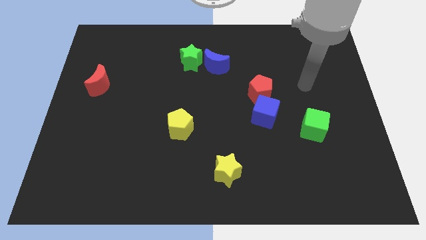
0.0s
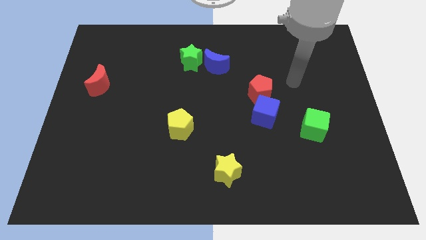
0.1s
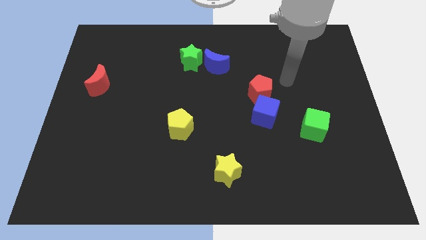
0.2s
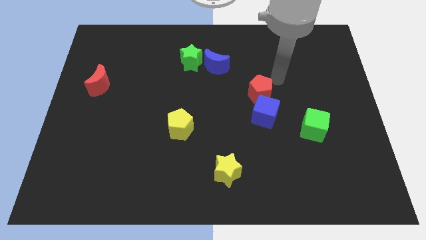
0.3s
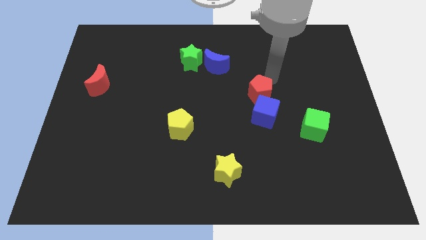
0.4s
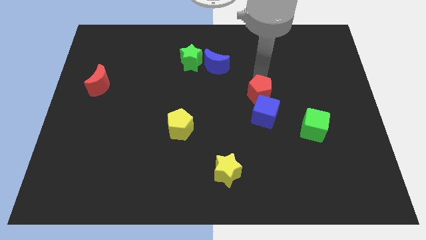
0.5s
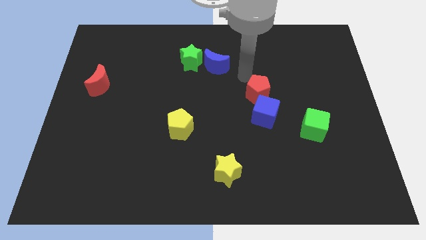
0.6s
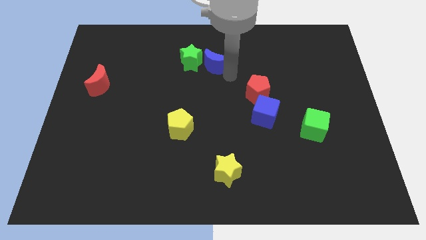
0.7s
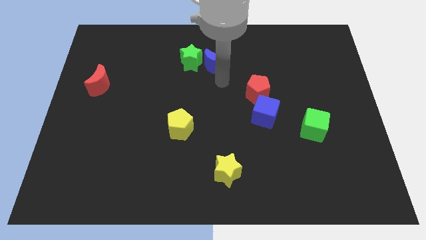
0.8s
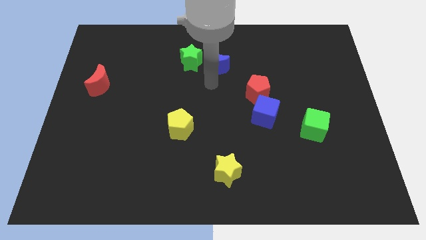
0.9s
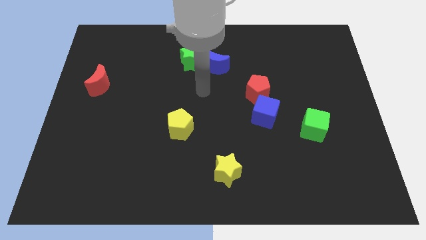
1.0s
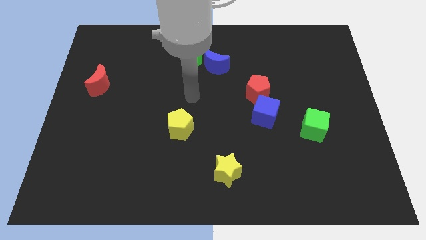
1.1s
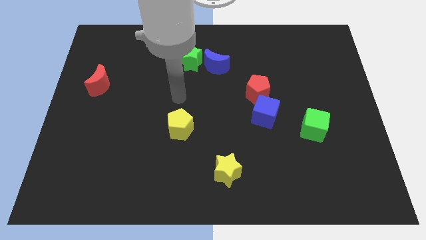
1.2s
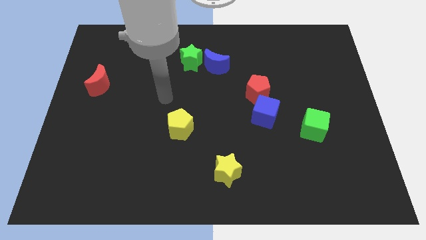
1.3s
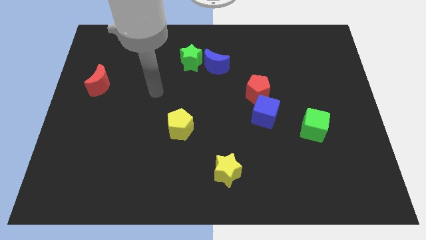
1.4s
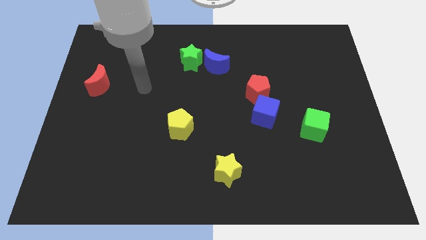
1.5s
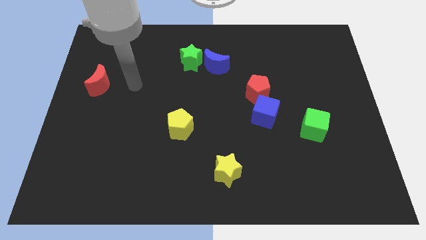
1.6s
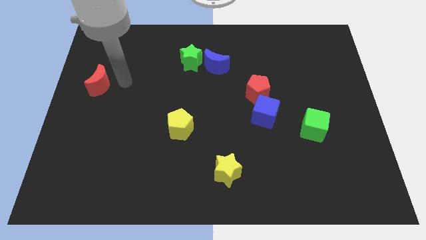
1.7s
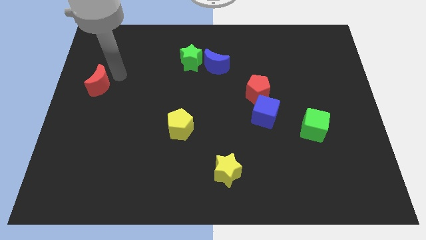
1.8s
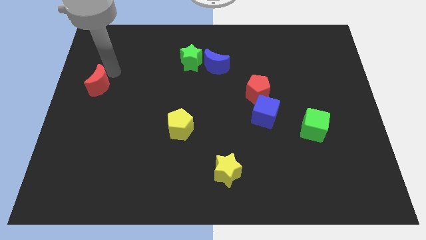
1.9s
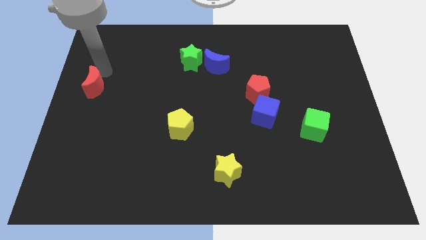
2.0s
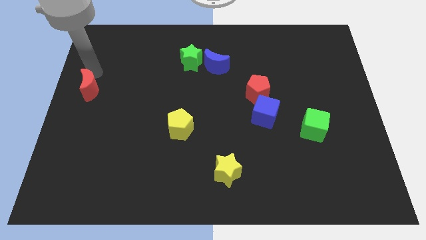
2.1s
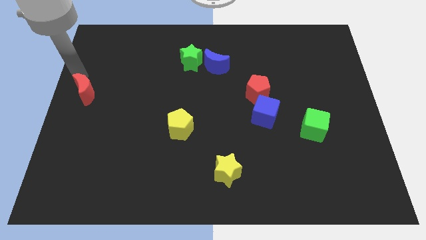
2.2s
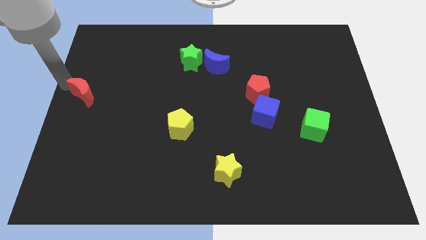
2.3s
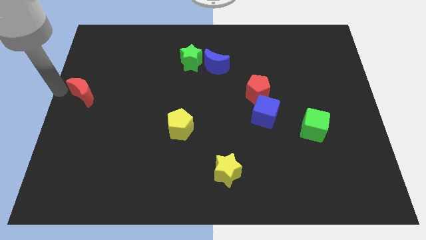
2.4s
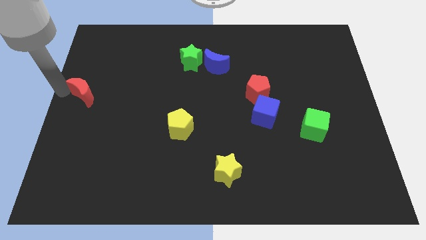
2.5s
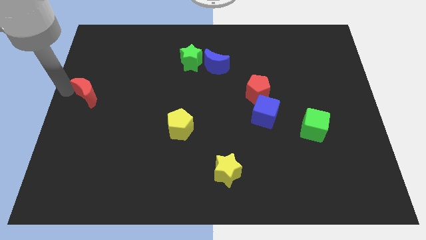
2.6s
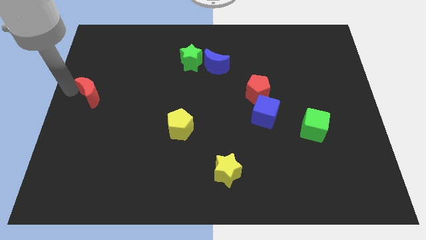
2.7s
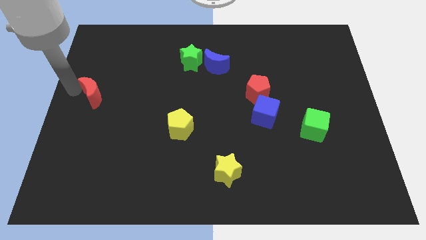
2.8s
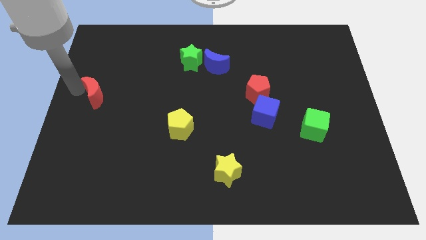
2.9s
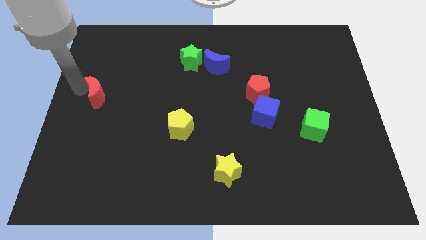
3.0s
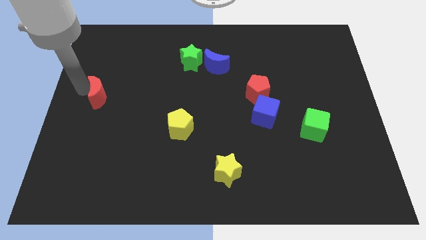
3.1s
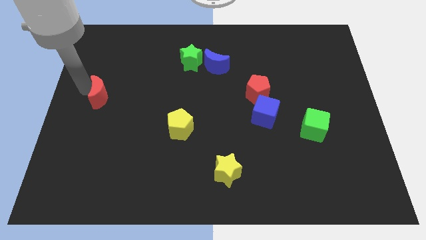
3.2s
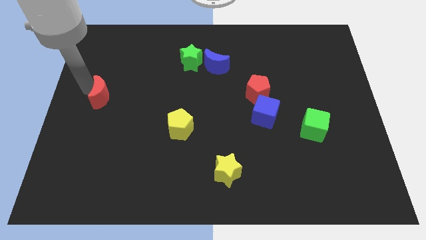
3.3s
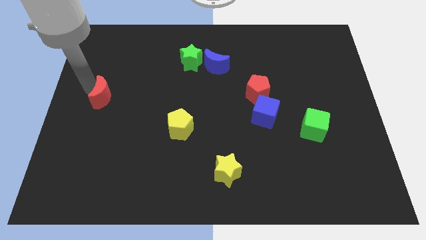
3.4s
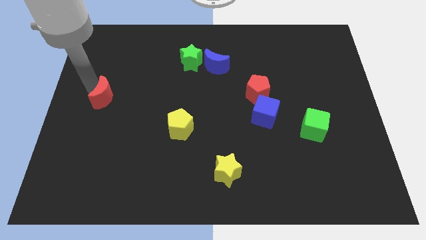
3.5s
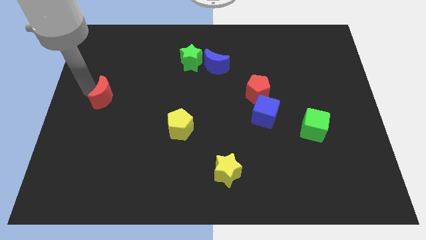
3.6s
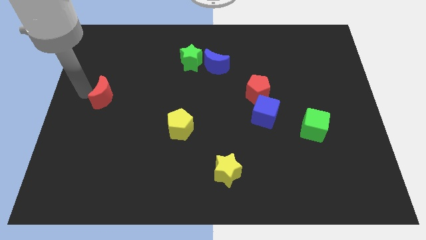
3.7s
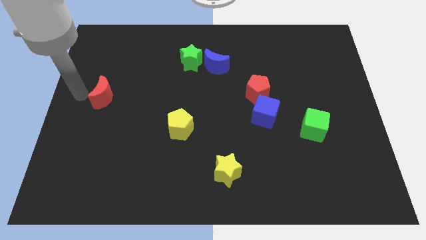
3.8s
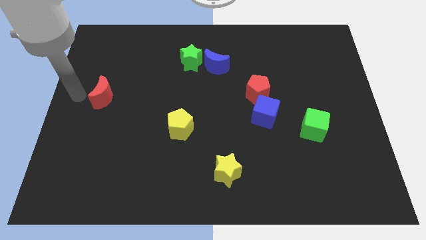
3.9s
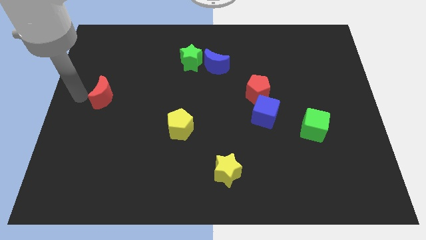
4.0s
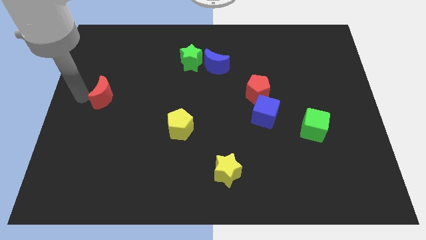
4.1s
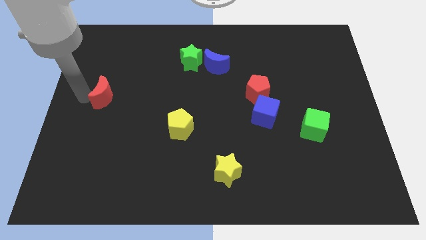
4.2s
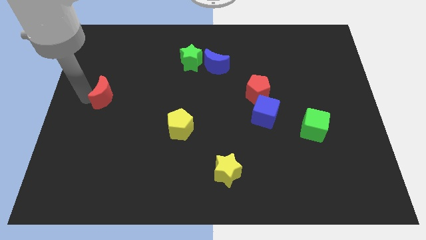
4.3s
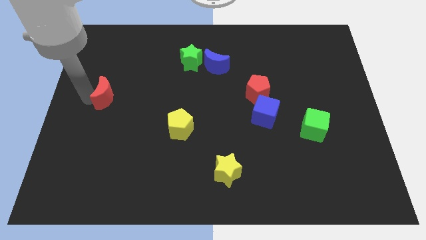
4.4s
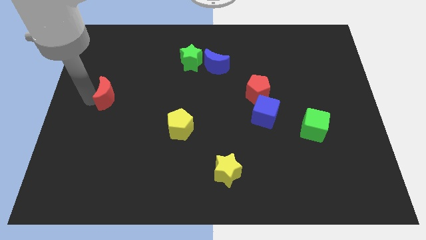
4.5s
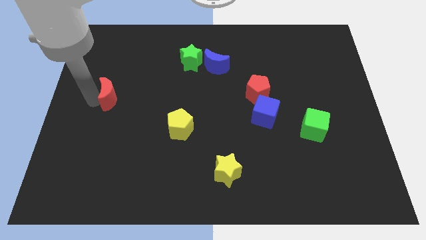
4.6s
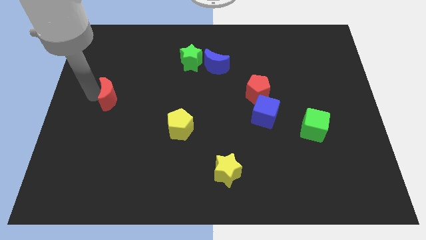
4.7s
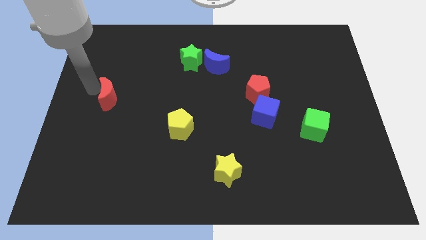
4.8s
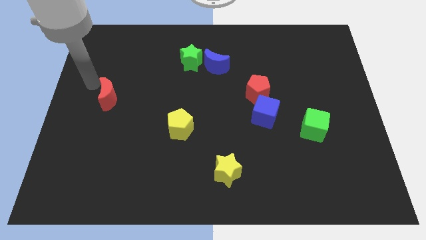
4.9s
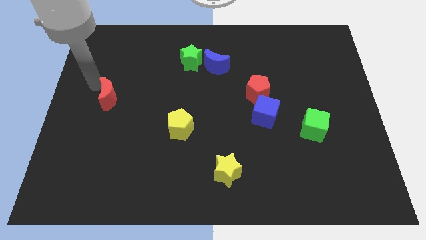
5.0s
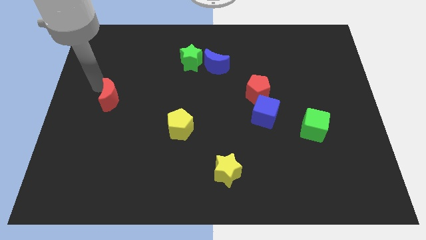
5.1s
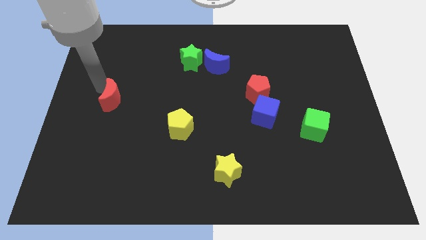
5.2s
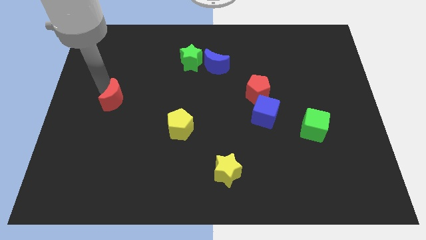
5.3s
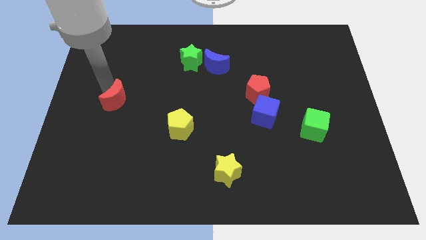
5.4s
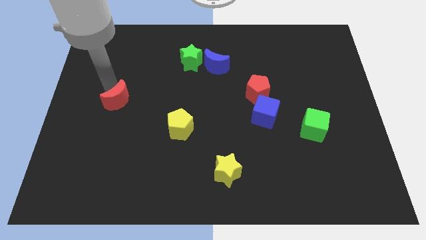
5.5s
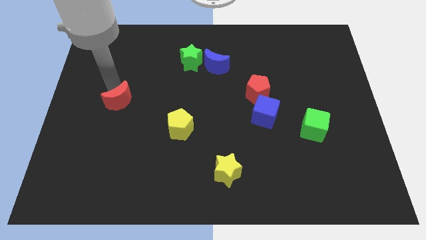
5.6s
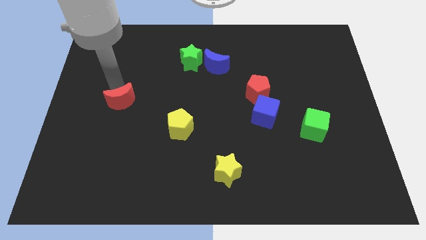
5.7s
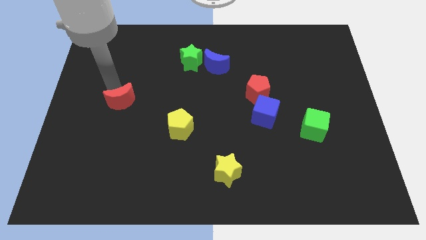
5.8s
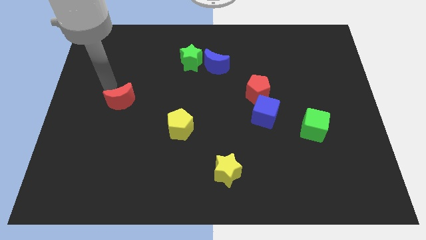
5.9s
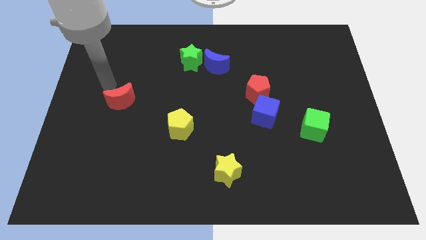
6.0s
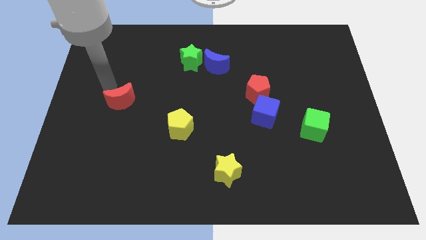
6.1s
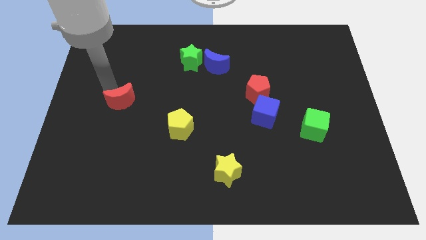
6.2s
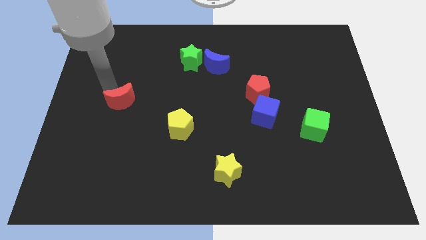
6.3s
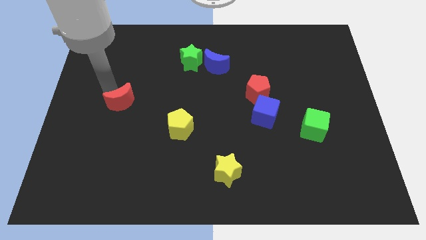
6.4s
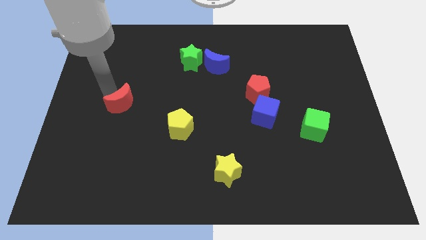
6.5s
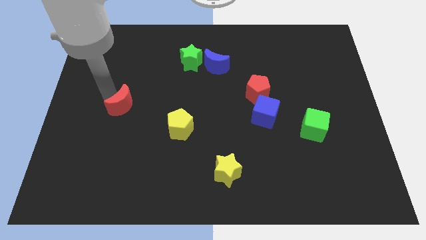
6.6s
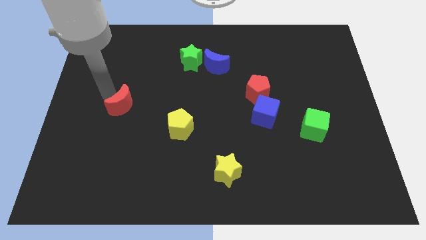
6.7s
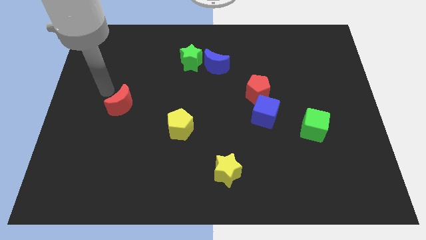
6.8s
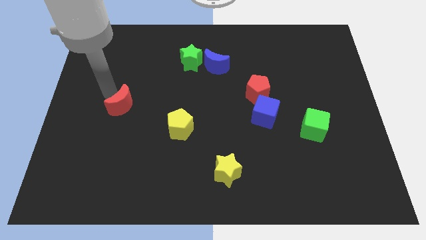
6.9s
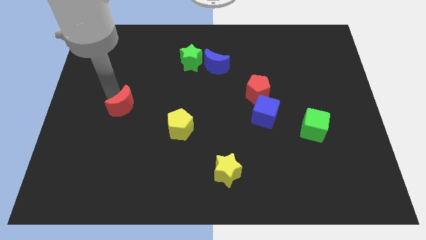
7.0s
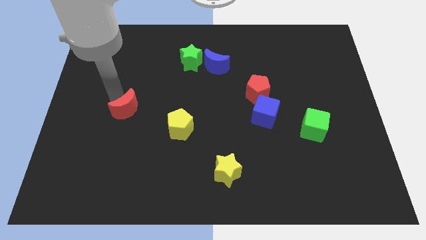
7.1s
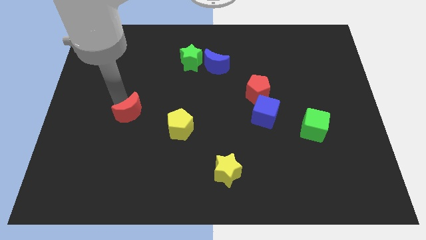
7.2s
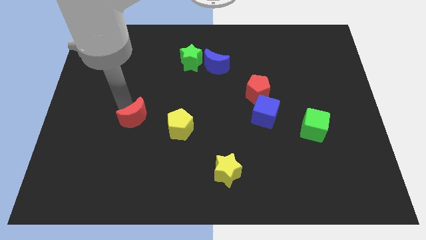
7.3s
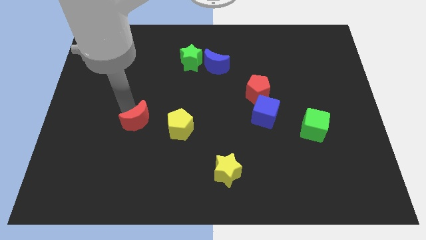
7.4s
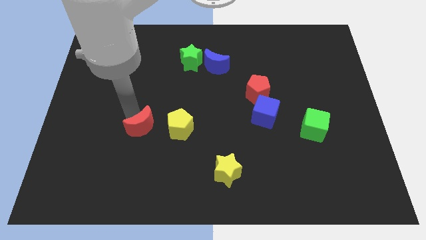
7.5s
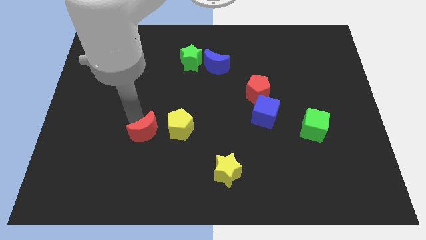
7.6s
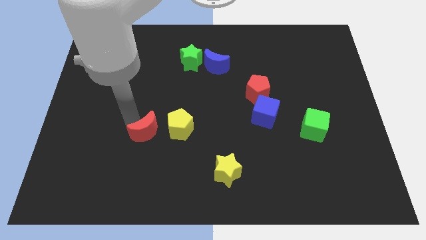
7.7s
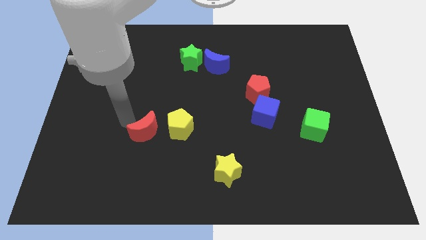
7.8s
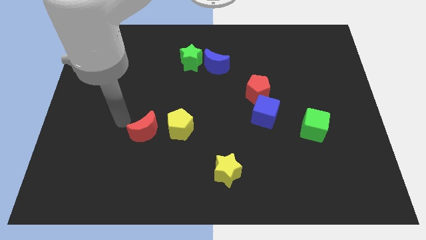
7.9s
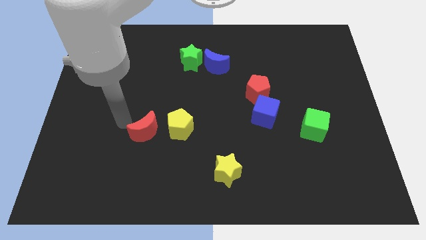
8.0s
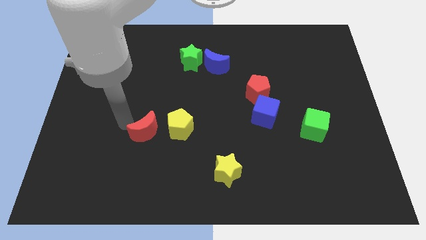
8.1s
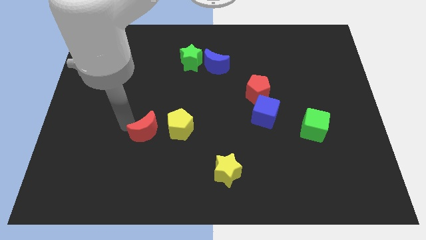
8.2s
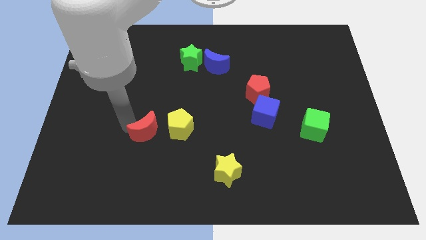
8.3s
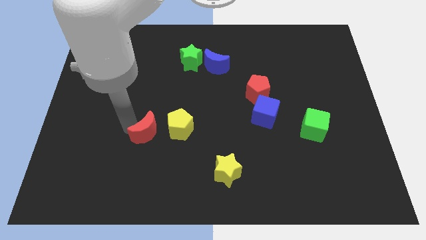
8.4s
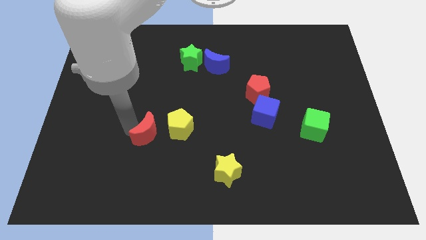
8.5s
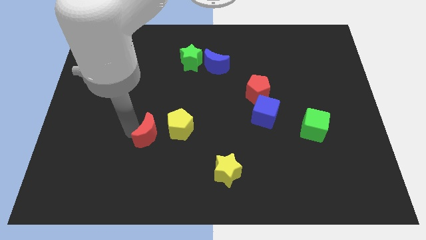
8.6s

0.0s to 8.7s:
push the red moon diagonally down and right
